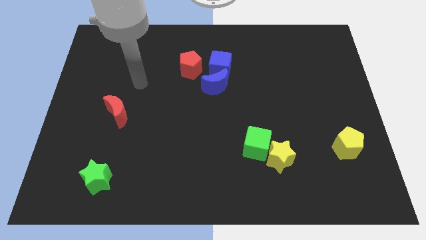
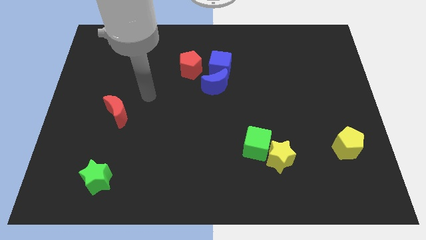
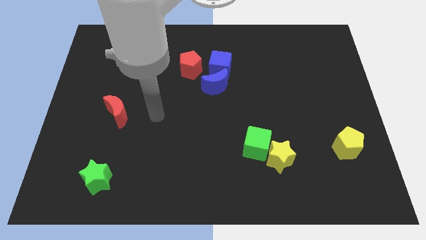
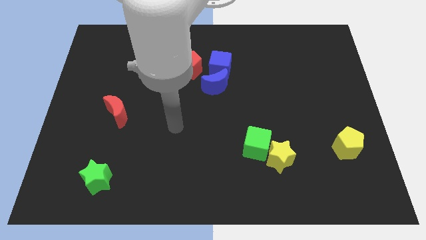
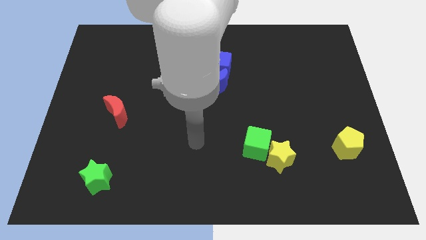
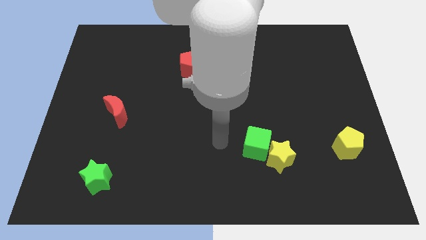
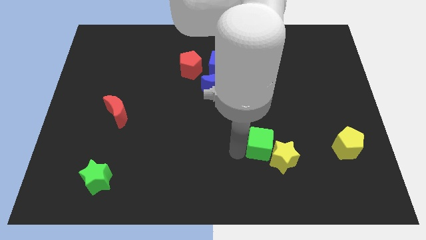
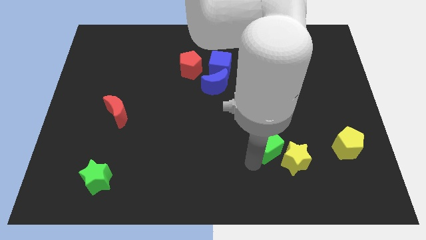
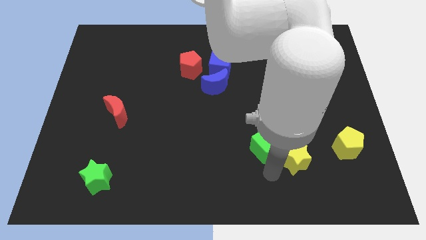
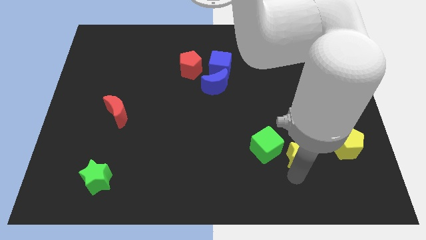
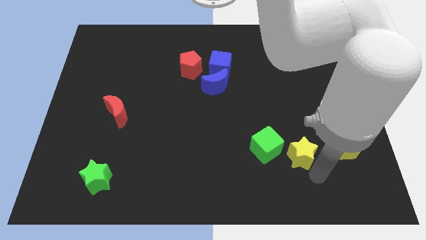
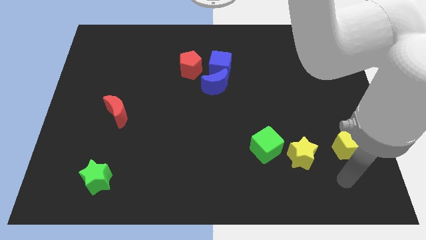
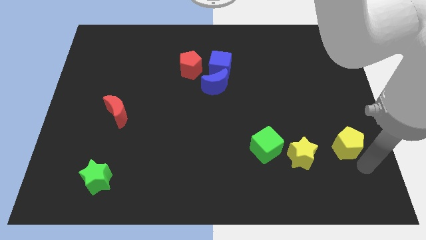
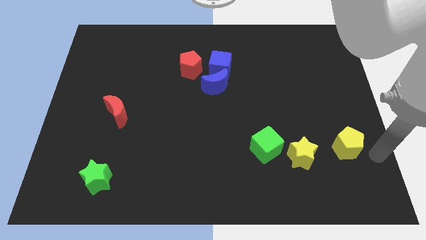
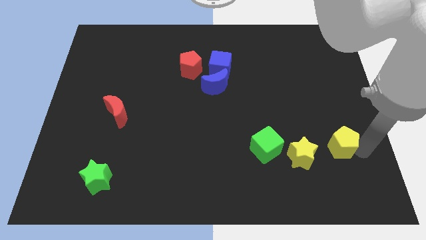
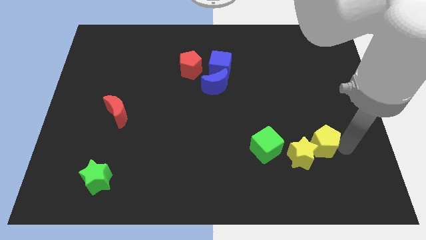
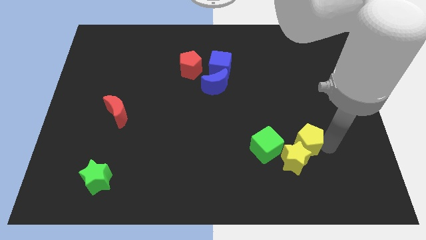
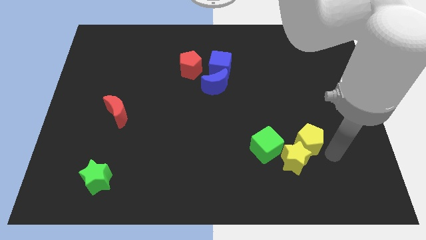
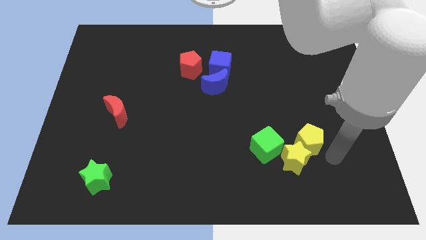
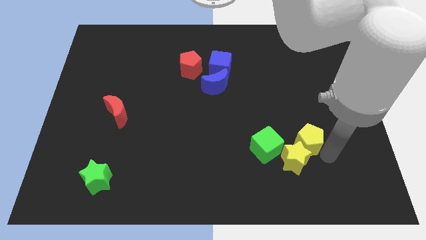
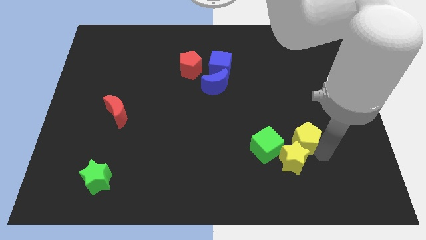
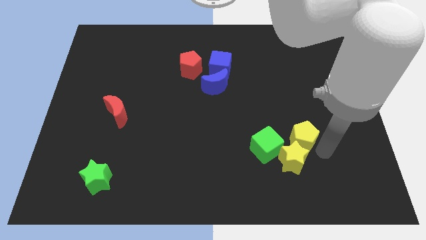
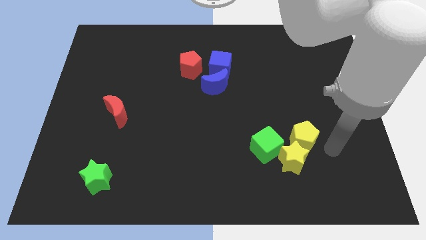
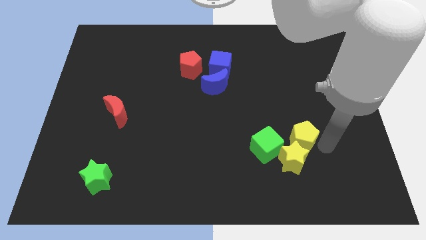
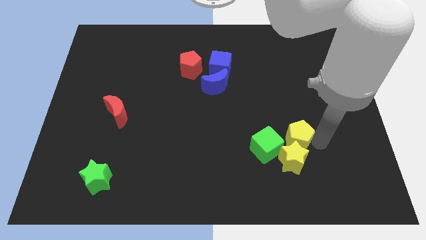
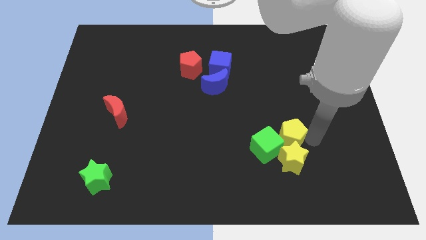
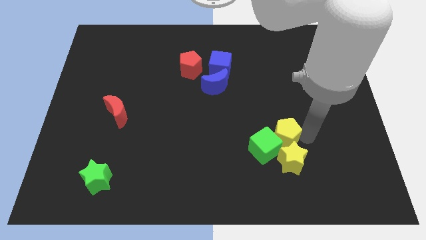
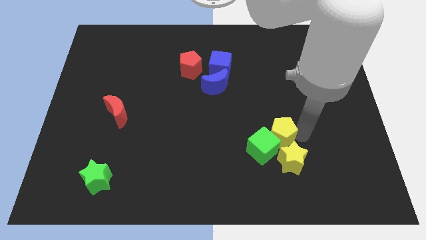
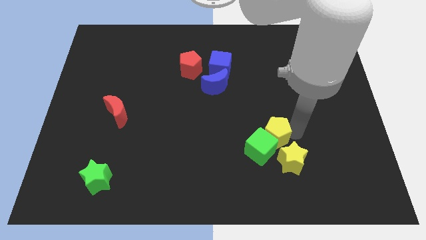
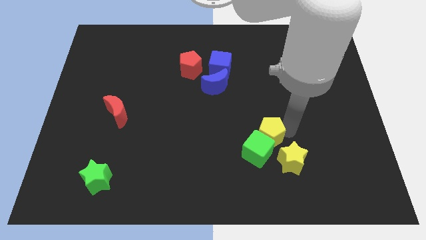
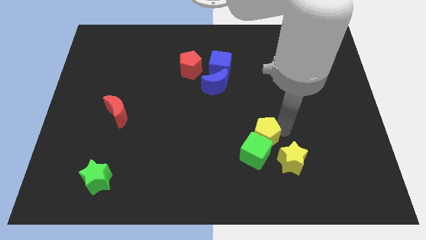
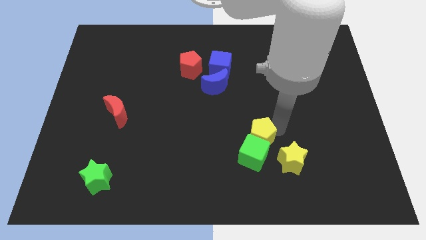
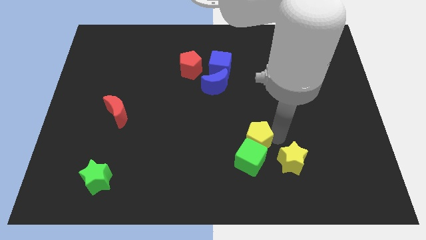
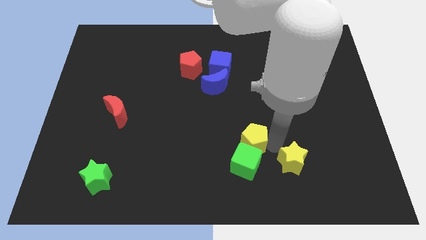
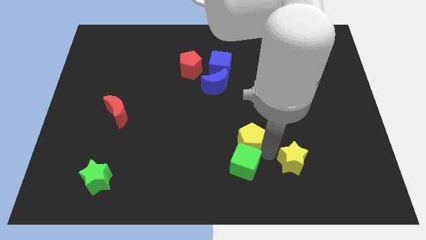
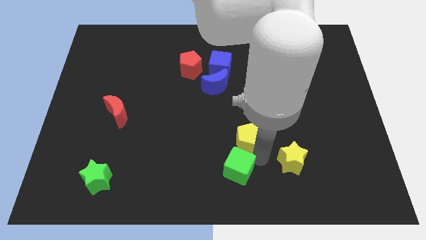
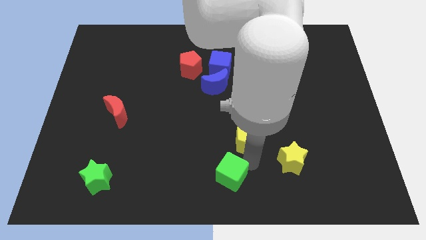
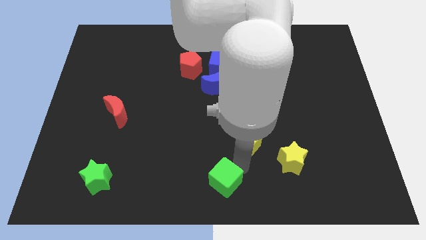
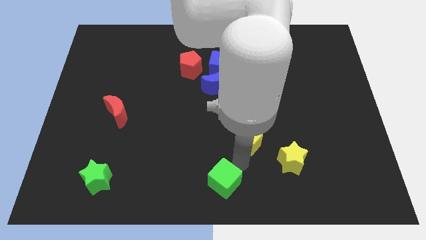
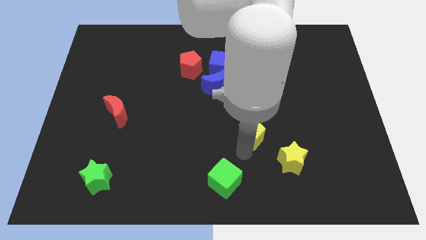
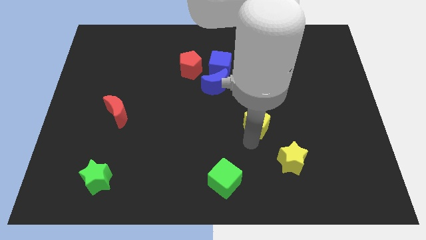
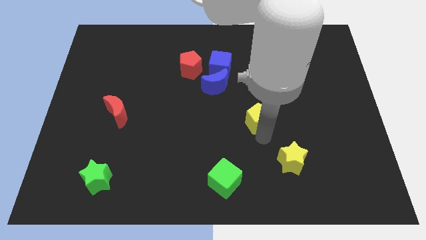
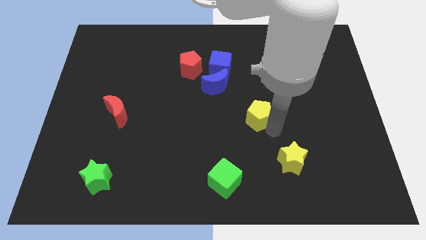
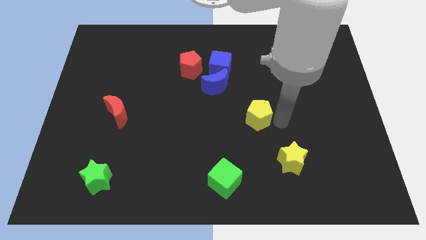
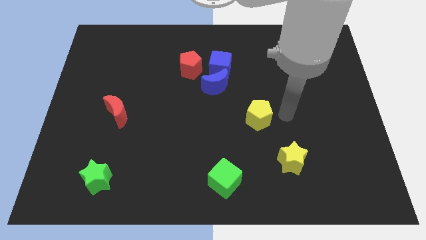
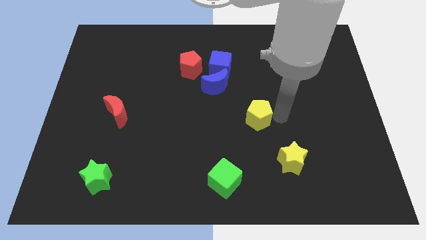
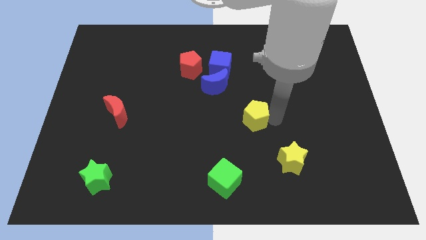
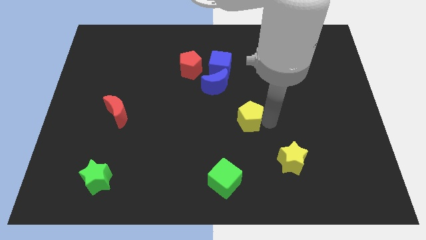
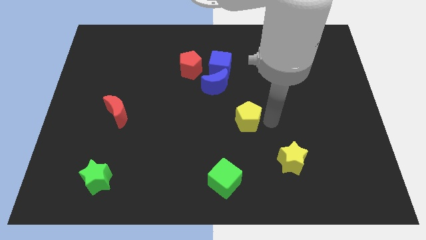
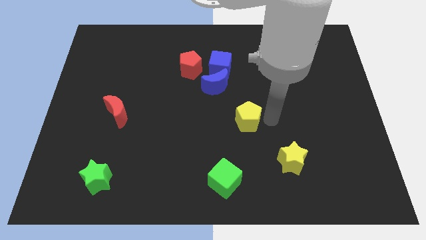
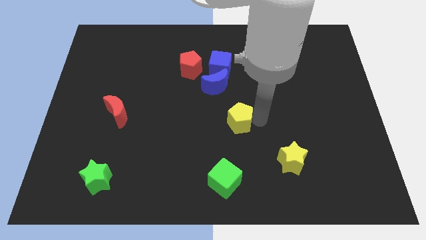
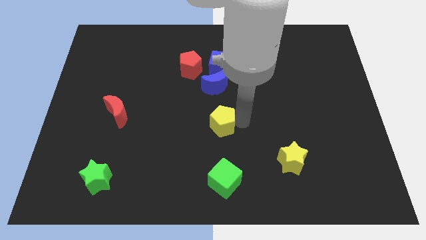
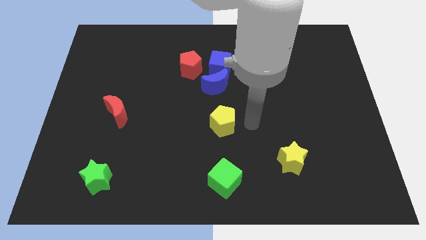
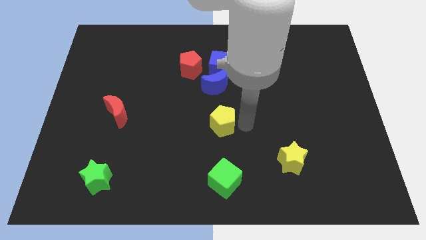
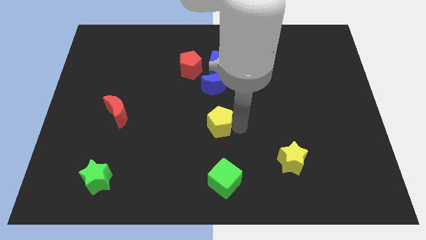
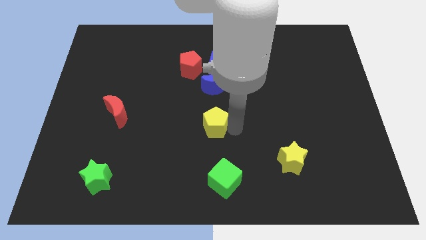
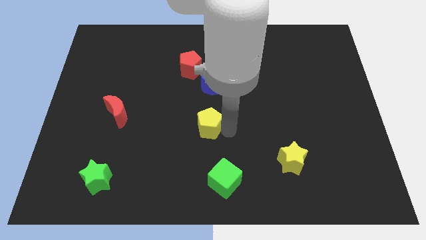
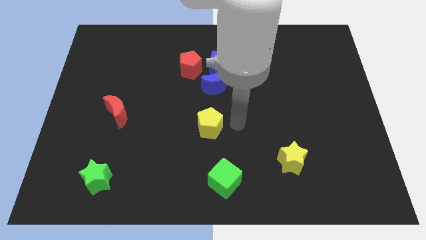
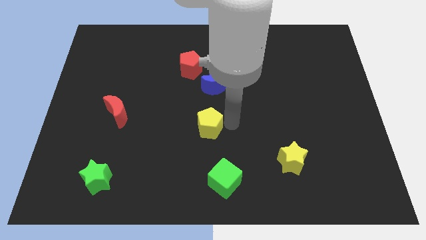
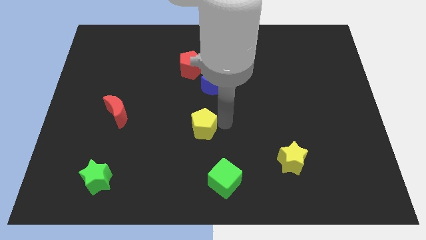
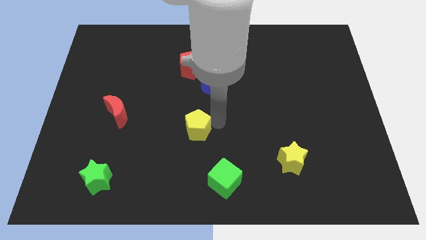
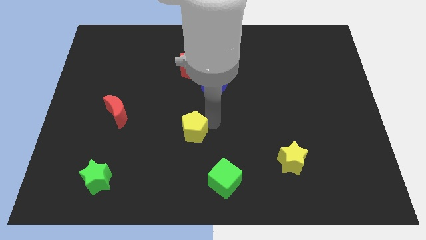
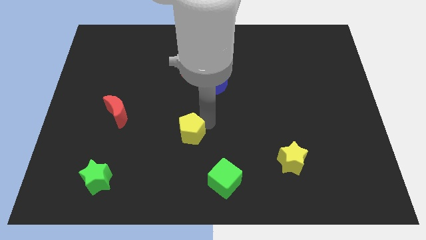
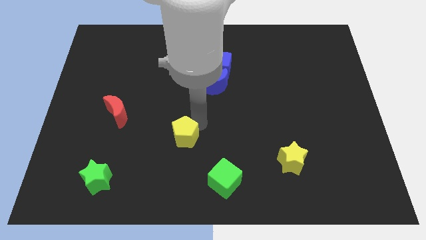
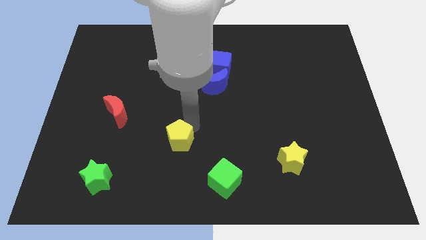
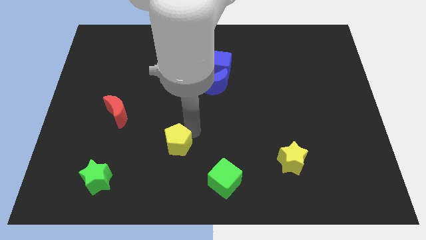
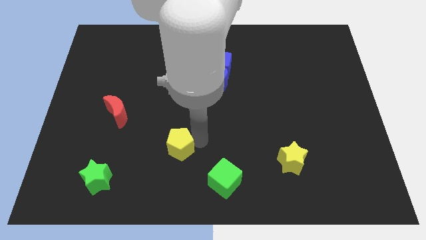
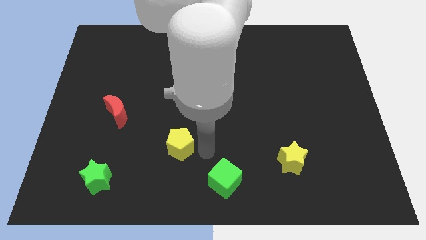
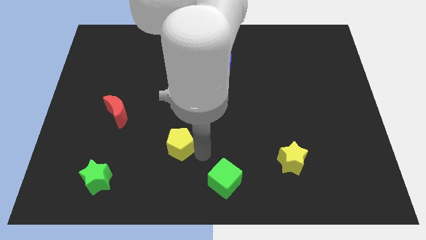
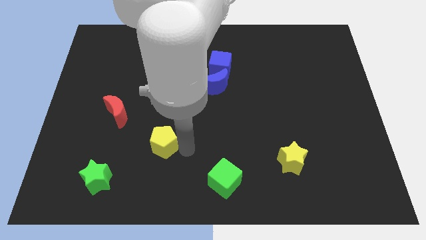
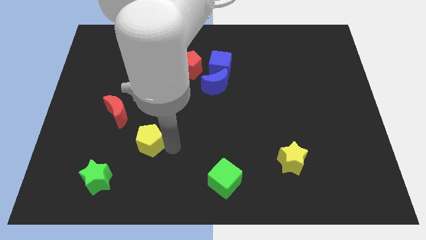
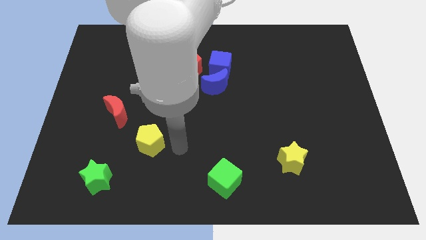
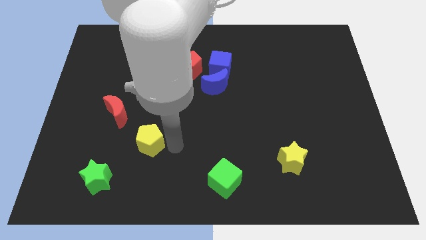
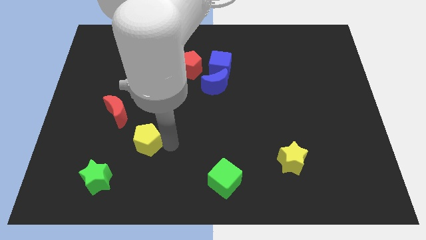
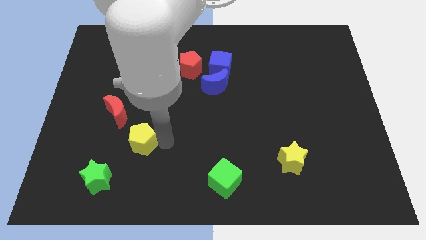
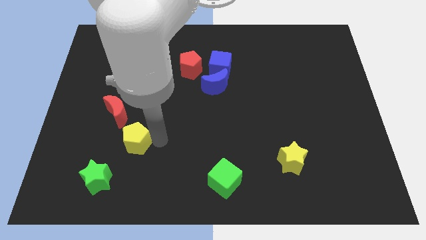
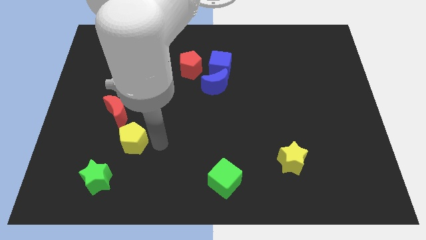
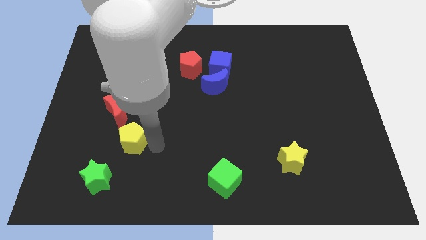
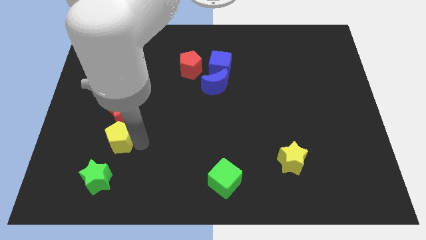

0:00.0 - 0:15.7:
slide the yellow pentagon above the green star
